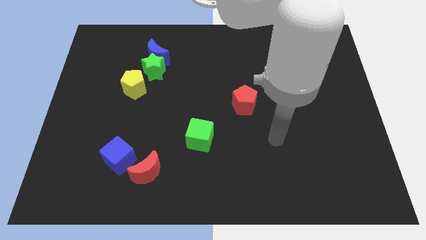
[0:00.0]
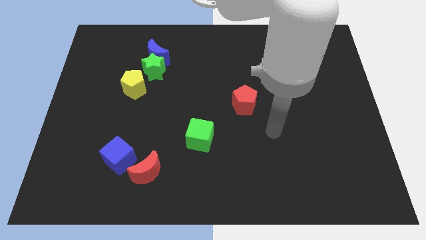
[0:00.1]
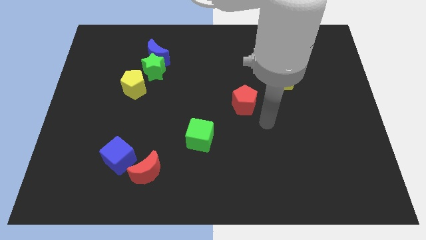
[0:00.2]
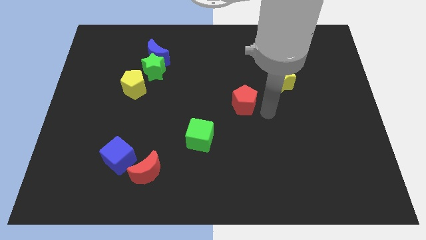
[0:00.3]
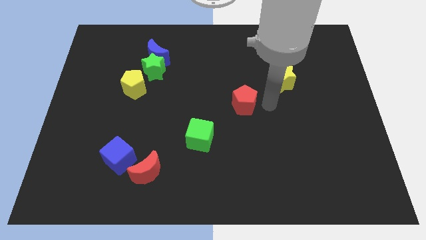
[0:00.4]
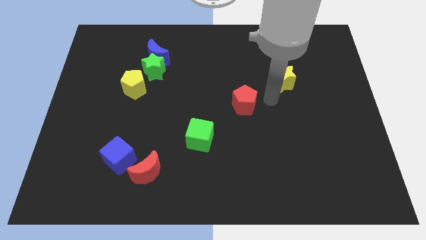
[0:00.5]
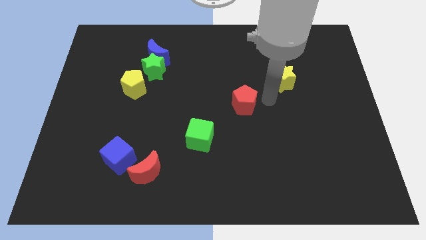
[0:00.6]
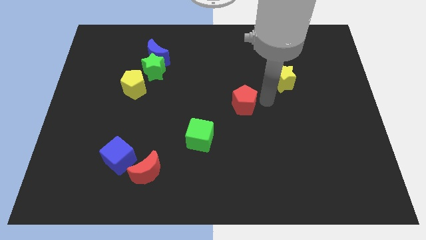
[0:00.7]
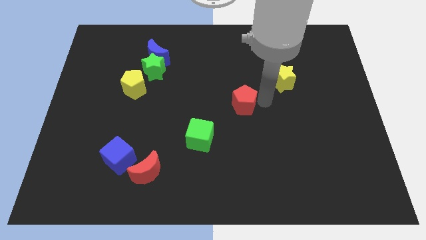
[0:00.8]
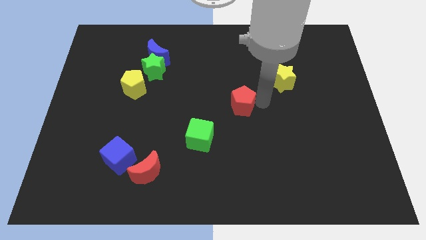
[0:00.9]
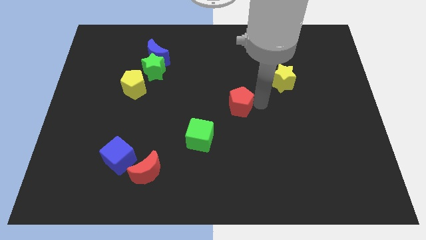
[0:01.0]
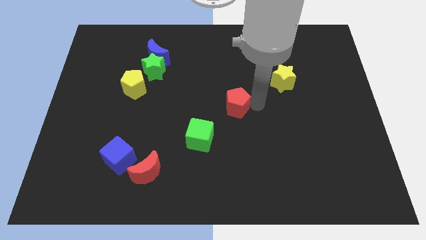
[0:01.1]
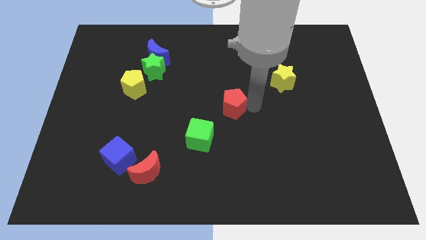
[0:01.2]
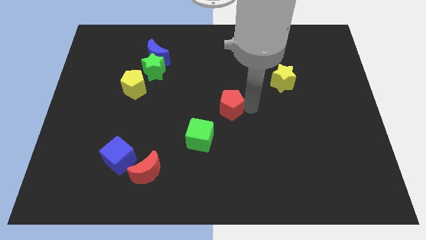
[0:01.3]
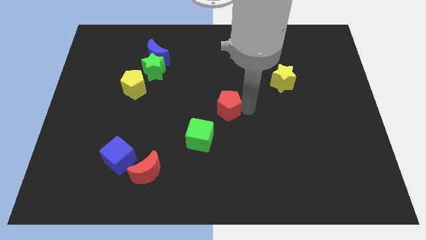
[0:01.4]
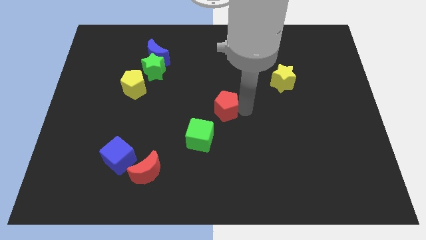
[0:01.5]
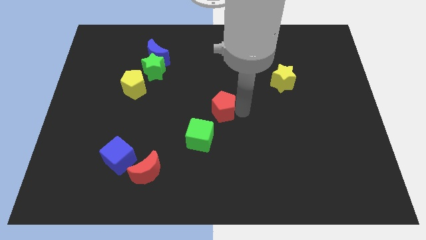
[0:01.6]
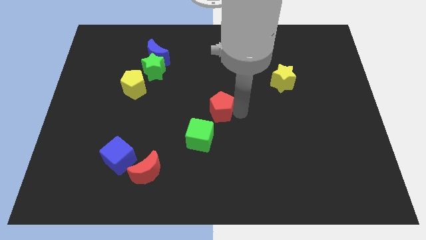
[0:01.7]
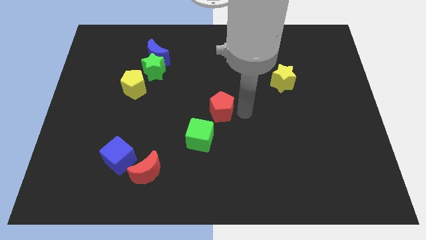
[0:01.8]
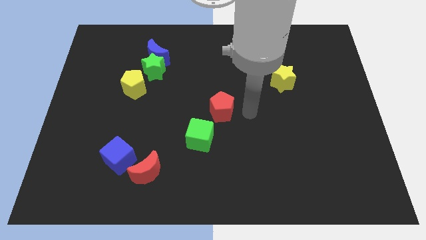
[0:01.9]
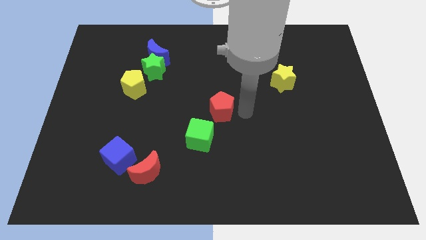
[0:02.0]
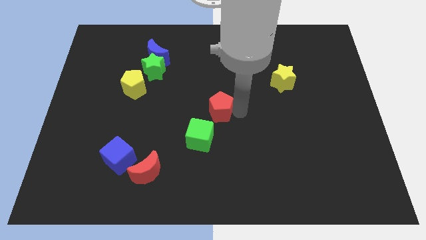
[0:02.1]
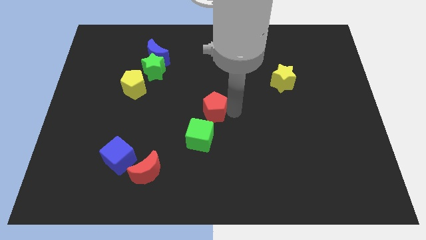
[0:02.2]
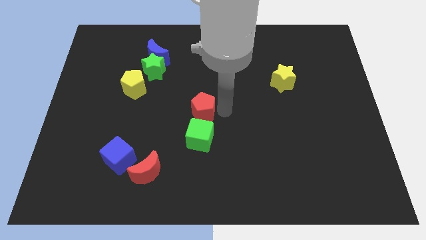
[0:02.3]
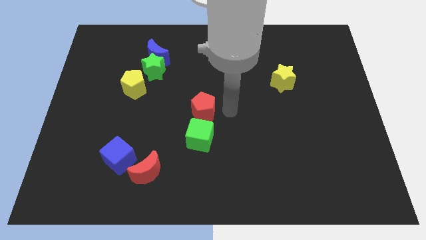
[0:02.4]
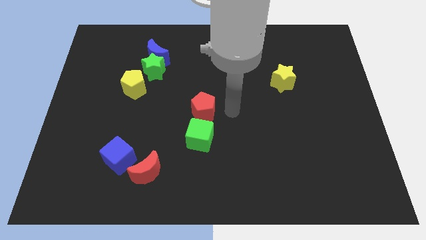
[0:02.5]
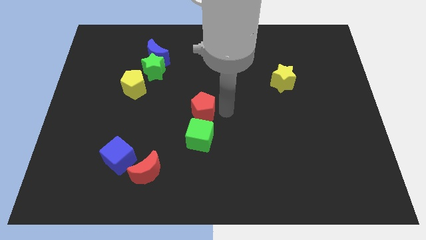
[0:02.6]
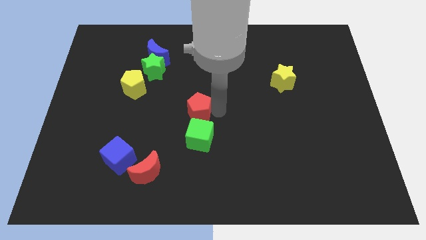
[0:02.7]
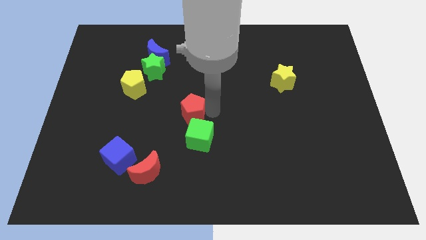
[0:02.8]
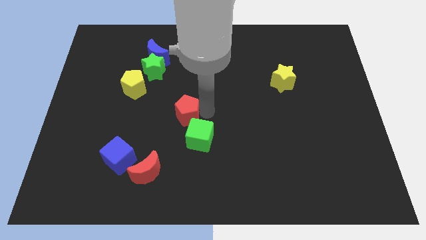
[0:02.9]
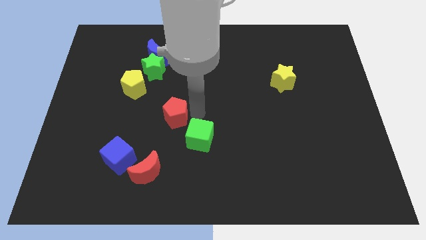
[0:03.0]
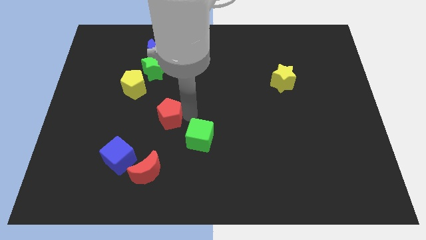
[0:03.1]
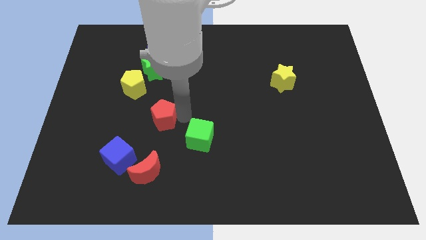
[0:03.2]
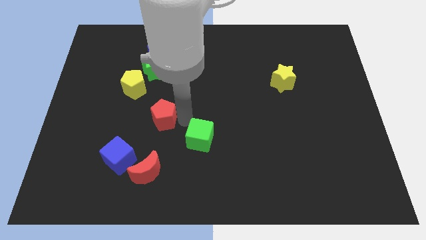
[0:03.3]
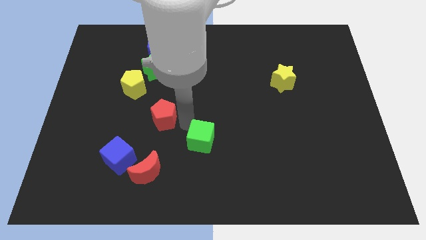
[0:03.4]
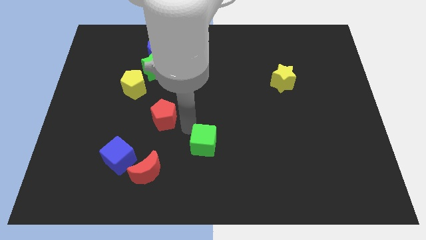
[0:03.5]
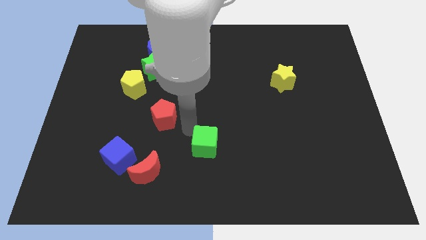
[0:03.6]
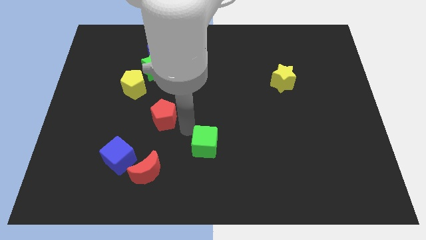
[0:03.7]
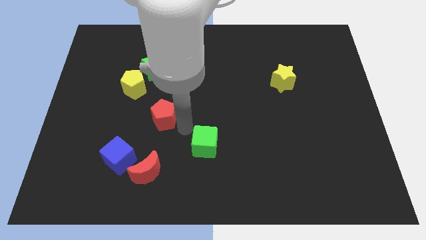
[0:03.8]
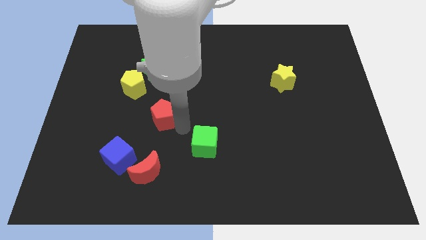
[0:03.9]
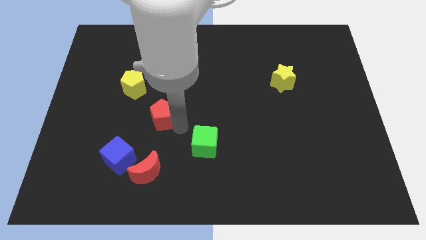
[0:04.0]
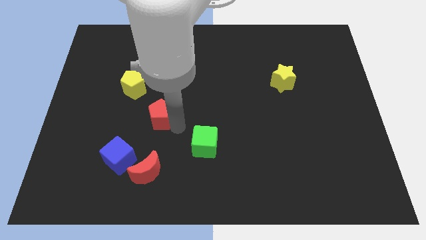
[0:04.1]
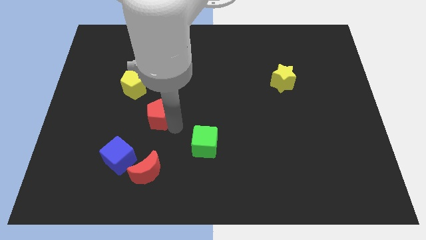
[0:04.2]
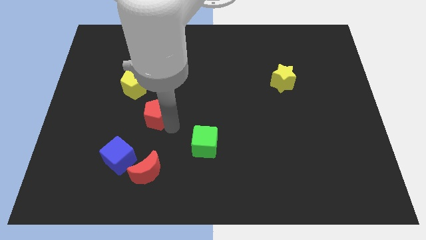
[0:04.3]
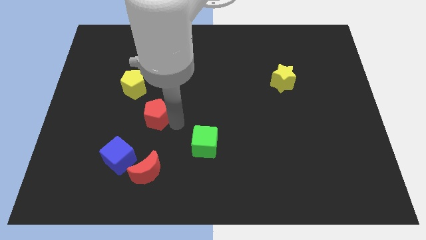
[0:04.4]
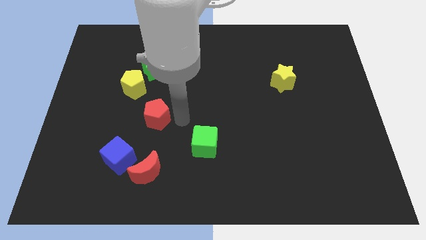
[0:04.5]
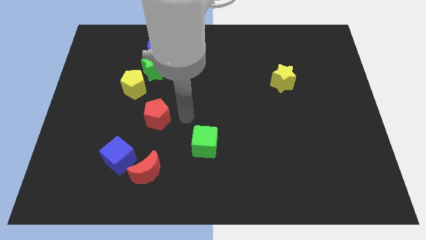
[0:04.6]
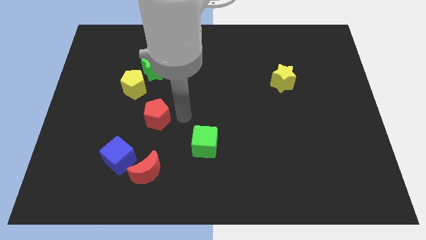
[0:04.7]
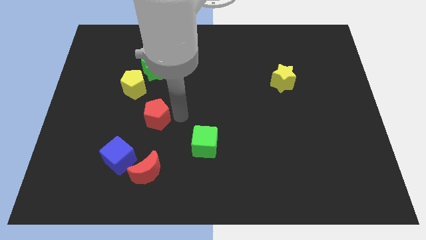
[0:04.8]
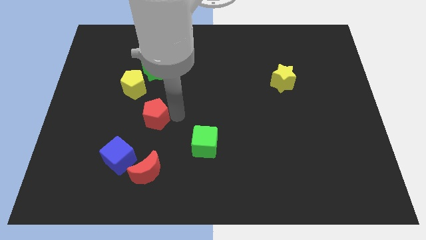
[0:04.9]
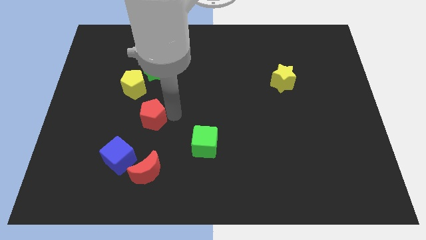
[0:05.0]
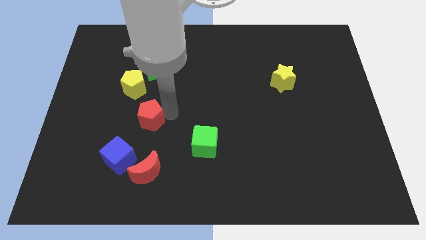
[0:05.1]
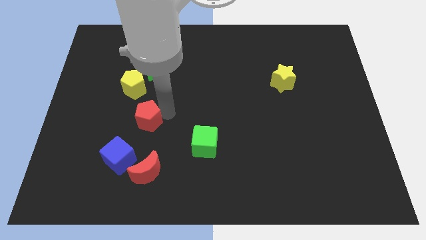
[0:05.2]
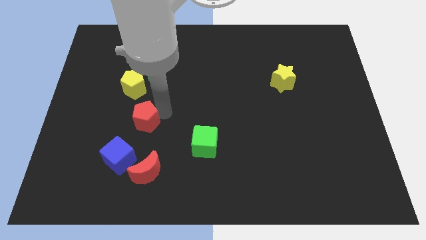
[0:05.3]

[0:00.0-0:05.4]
push the red pentagon above the blue cube

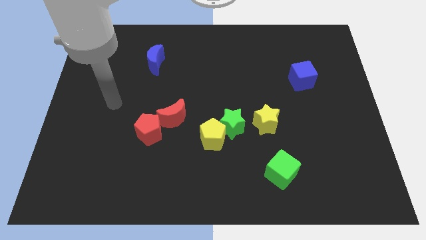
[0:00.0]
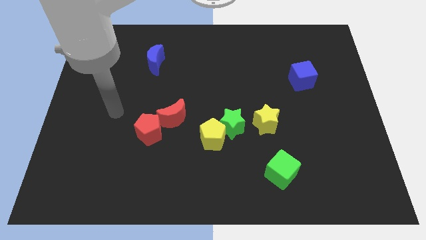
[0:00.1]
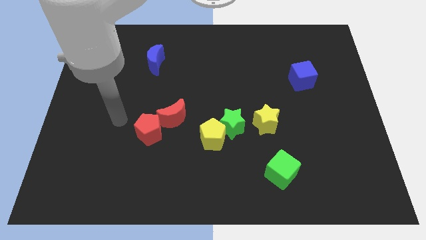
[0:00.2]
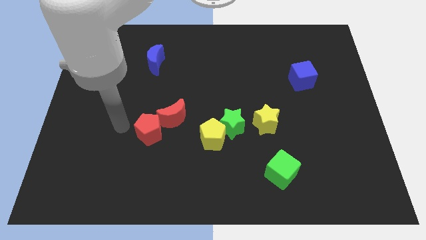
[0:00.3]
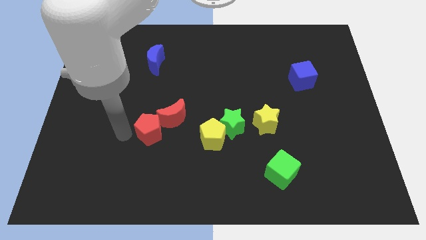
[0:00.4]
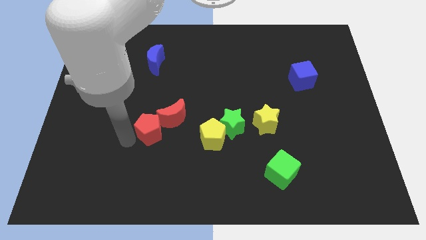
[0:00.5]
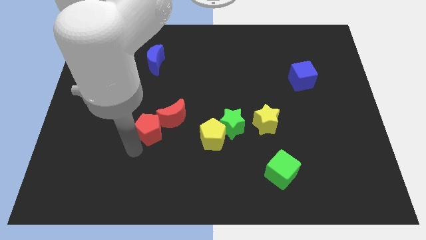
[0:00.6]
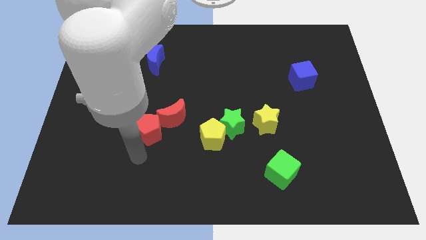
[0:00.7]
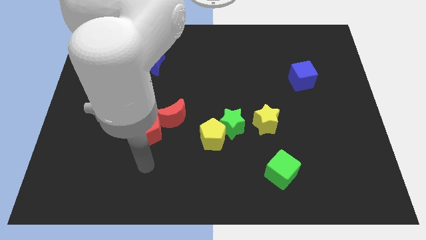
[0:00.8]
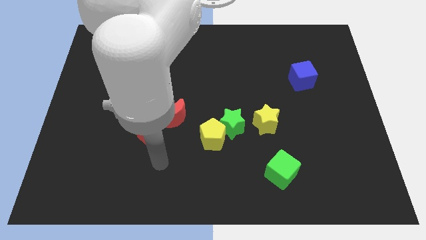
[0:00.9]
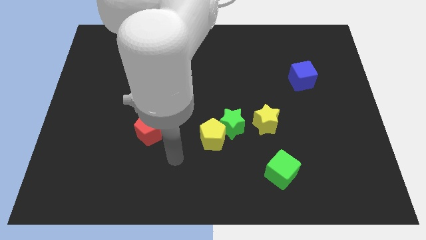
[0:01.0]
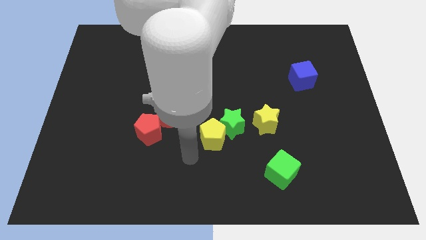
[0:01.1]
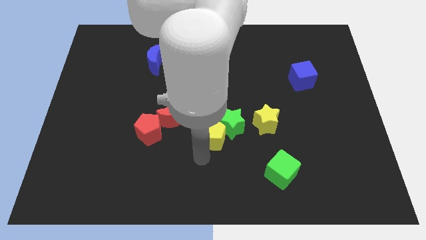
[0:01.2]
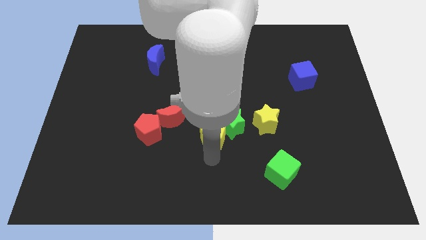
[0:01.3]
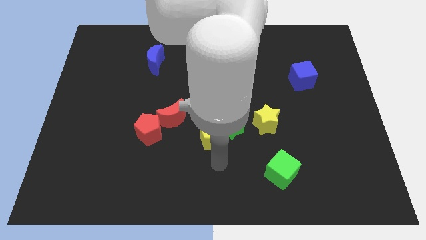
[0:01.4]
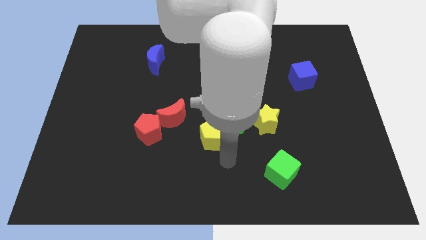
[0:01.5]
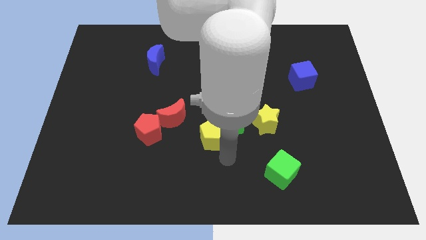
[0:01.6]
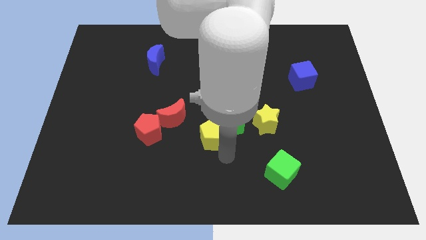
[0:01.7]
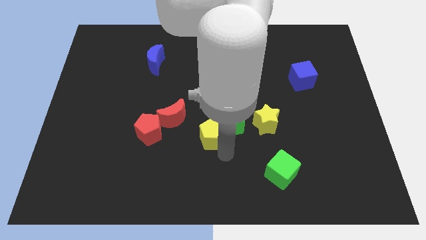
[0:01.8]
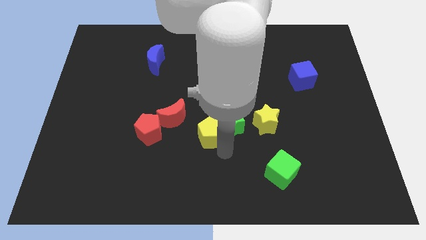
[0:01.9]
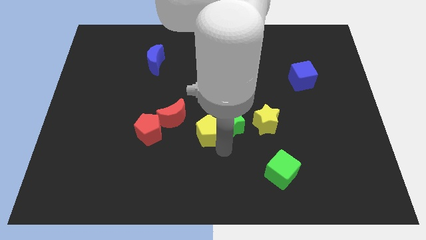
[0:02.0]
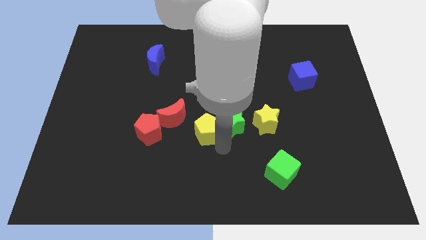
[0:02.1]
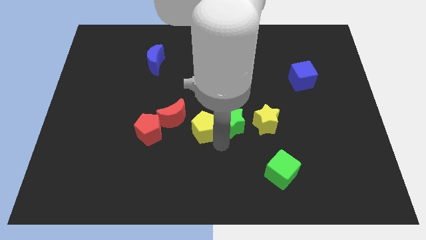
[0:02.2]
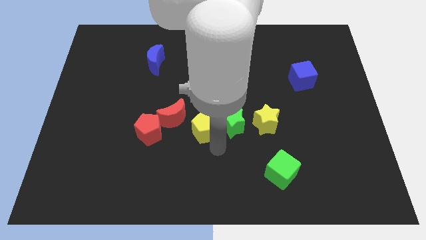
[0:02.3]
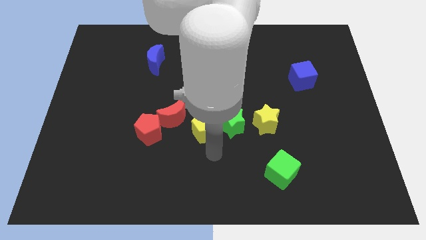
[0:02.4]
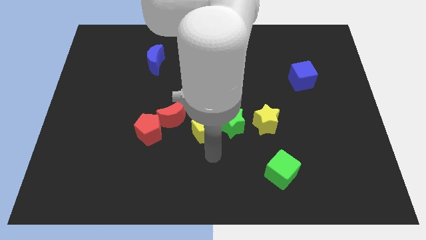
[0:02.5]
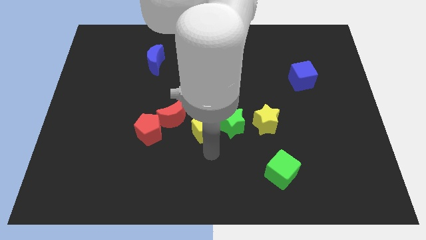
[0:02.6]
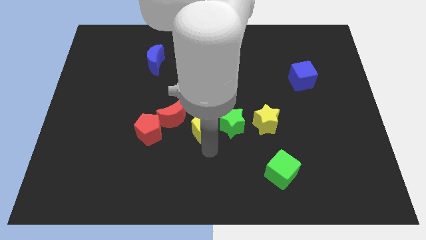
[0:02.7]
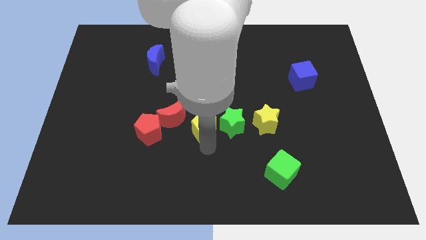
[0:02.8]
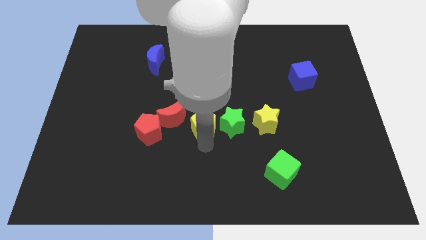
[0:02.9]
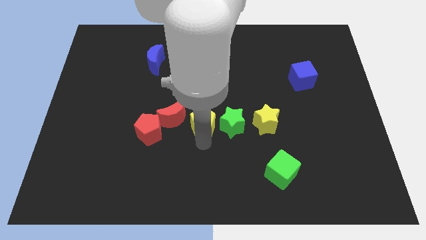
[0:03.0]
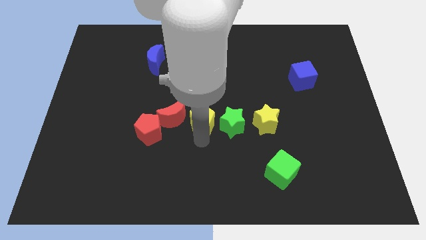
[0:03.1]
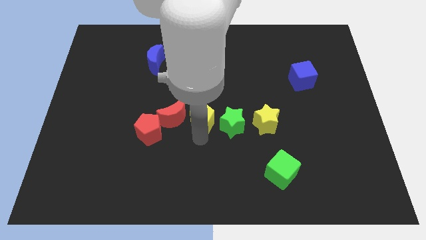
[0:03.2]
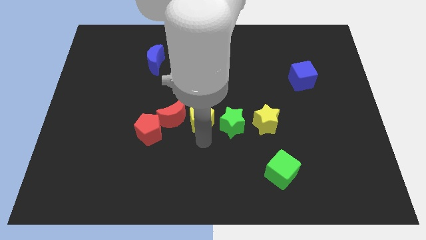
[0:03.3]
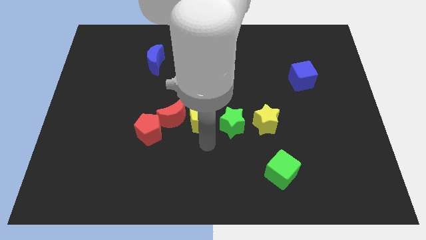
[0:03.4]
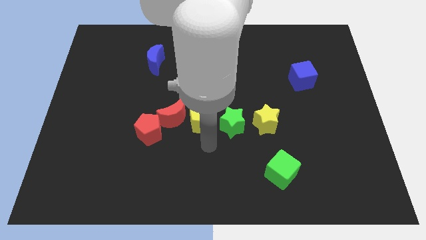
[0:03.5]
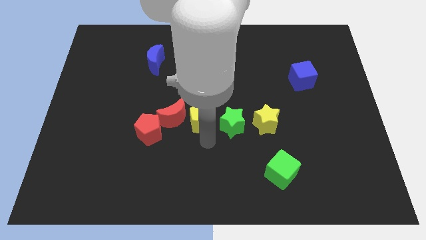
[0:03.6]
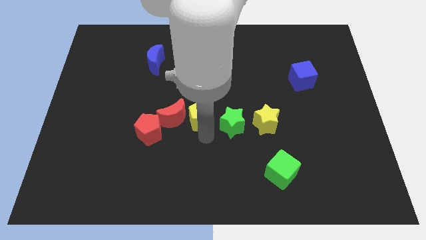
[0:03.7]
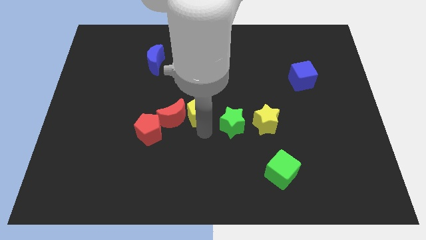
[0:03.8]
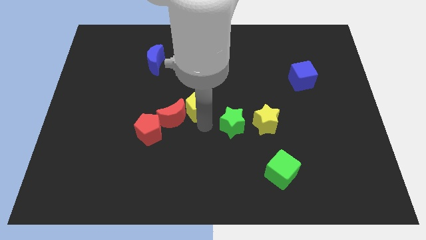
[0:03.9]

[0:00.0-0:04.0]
move the yellow pentagon to the top right of the red pentagon
